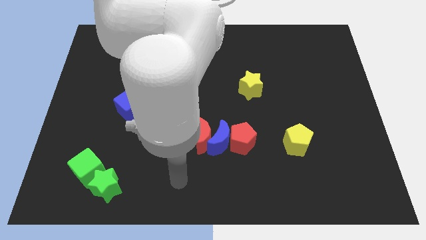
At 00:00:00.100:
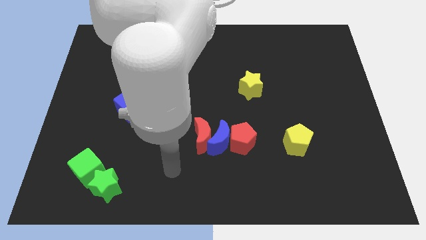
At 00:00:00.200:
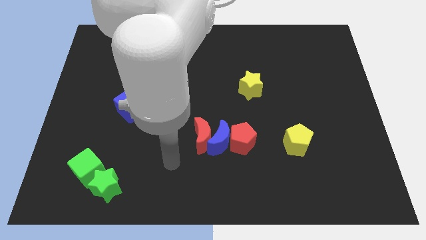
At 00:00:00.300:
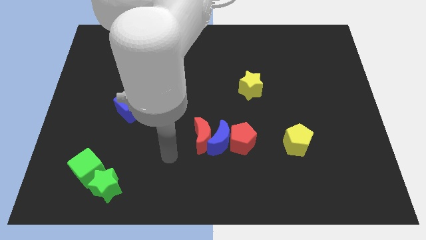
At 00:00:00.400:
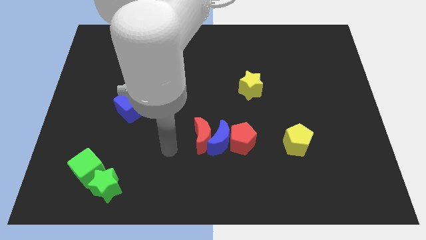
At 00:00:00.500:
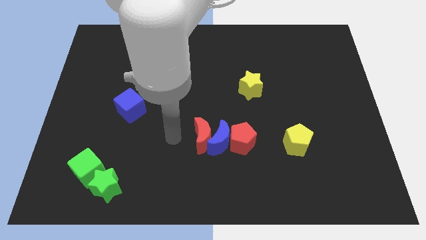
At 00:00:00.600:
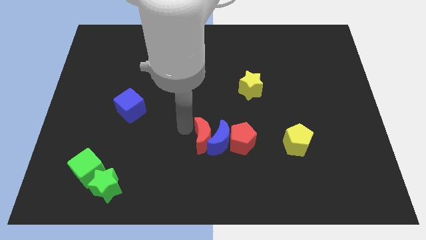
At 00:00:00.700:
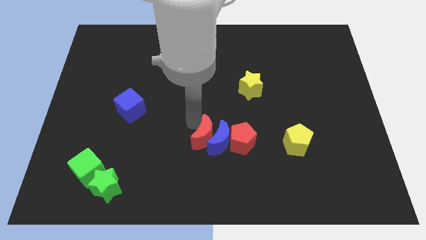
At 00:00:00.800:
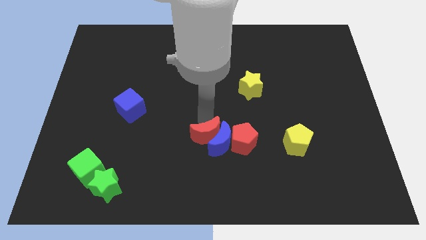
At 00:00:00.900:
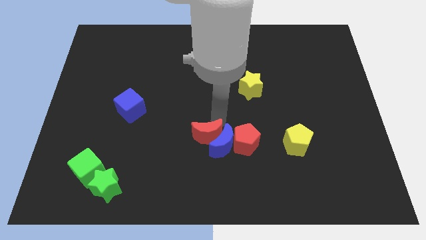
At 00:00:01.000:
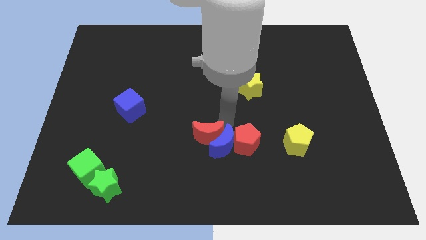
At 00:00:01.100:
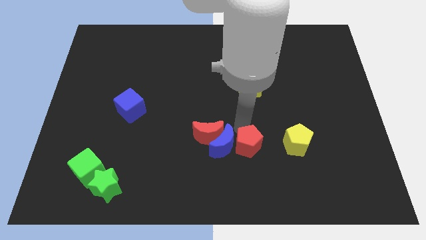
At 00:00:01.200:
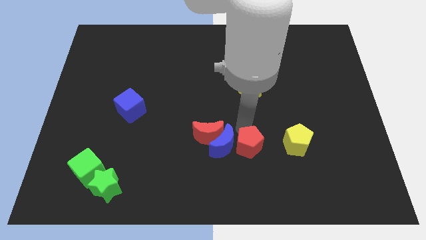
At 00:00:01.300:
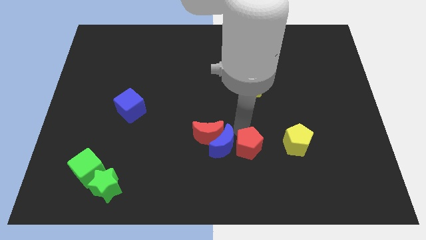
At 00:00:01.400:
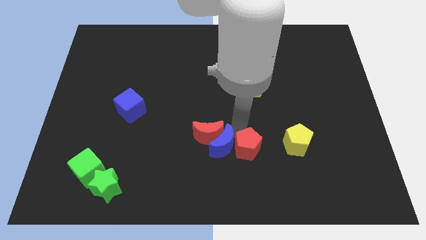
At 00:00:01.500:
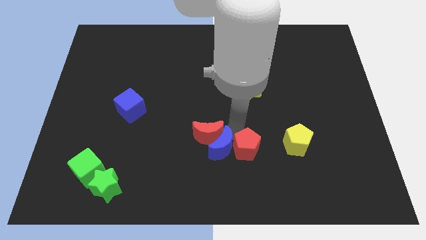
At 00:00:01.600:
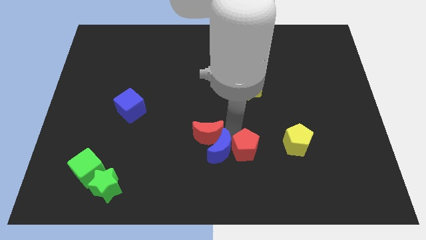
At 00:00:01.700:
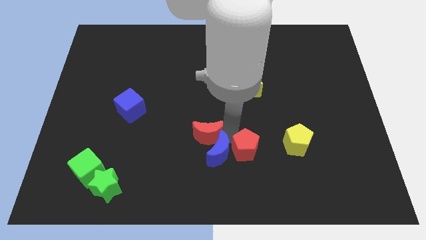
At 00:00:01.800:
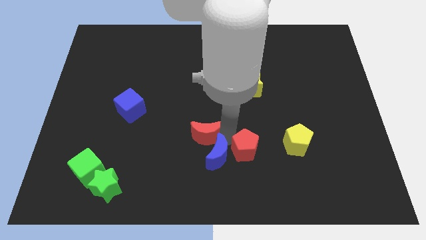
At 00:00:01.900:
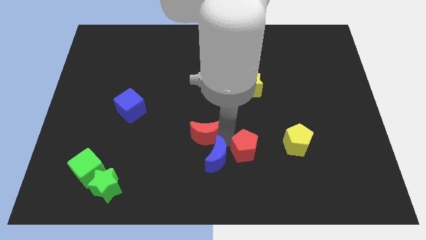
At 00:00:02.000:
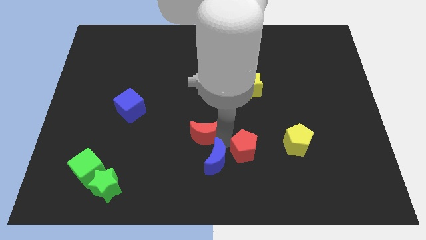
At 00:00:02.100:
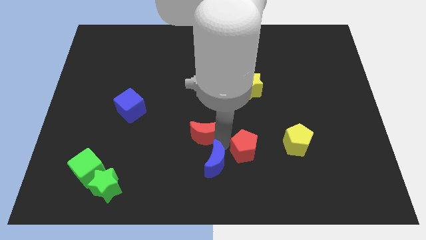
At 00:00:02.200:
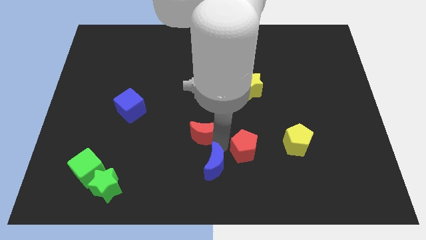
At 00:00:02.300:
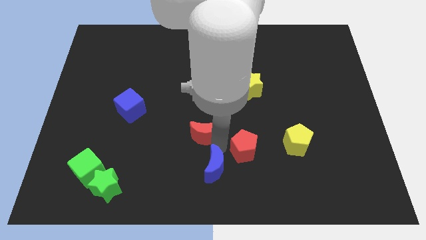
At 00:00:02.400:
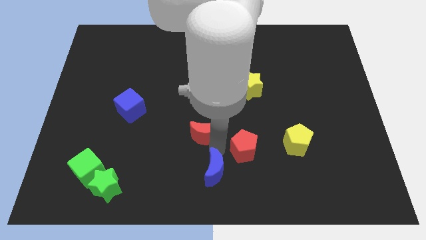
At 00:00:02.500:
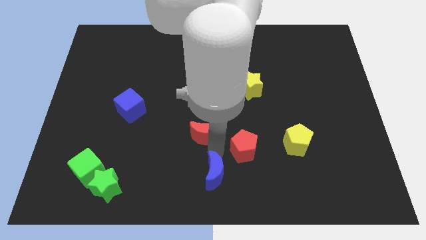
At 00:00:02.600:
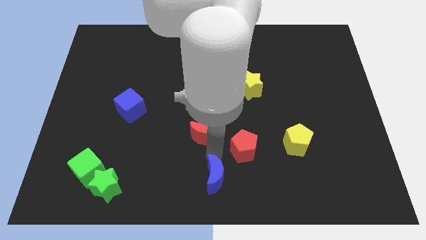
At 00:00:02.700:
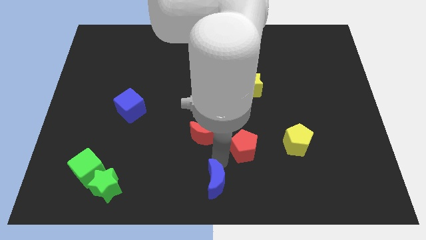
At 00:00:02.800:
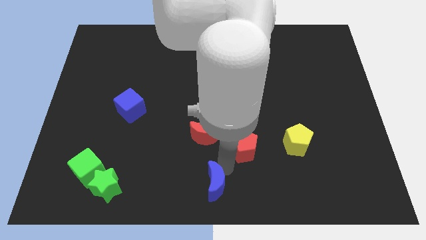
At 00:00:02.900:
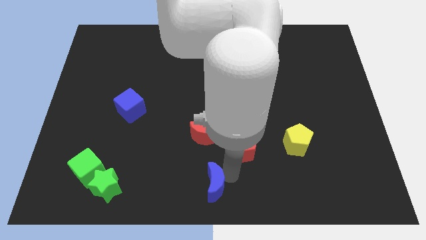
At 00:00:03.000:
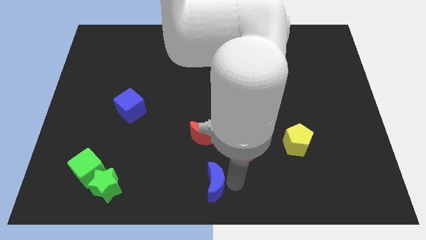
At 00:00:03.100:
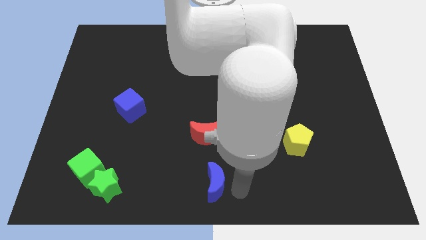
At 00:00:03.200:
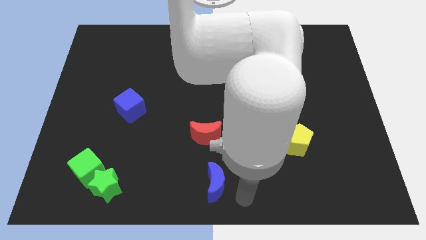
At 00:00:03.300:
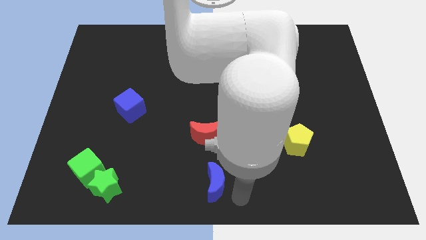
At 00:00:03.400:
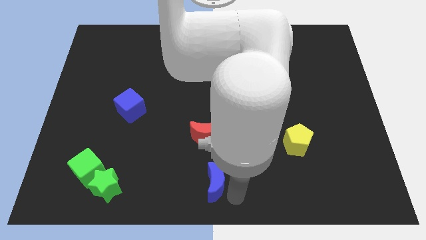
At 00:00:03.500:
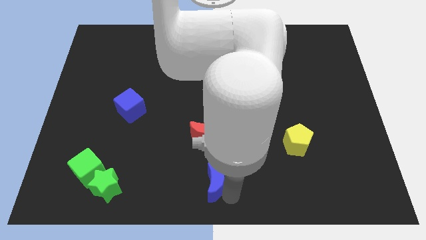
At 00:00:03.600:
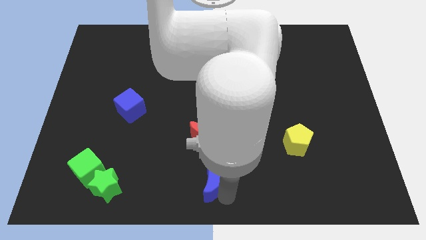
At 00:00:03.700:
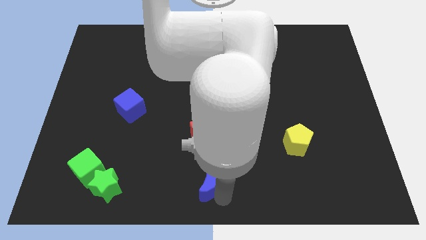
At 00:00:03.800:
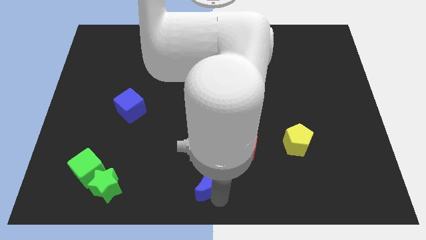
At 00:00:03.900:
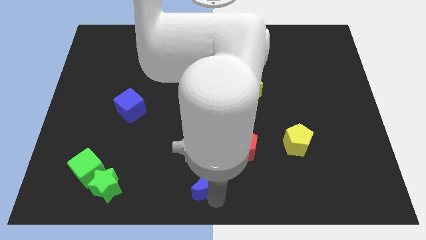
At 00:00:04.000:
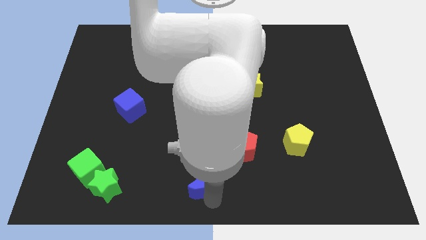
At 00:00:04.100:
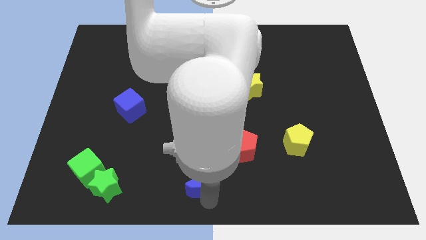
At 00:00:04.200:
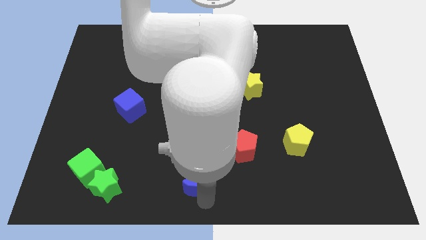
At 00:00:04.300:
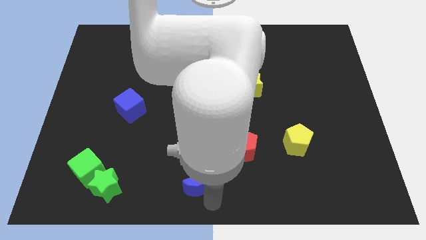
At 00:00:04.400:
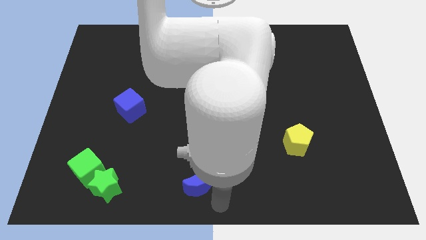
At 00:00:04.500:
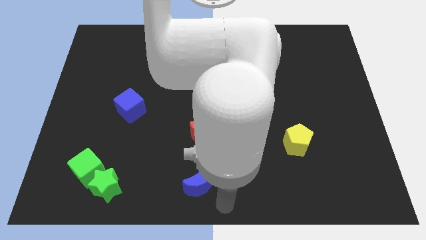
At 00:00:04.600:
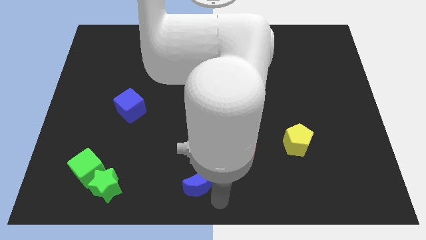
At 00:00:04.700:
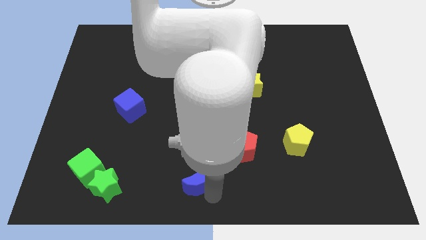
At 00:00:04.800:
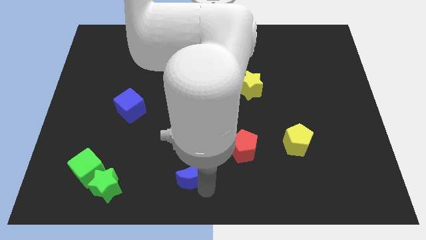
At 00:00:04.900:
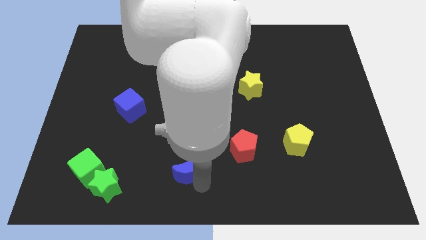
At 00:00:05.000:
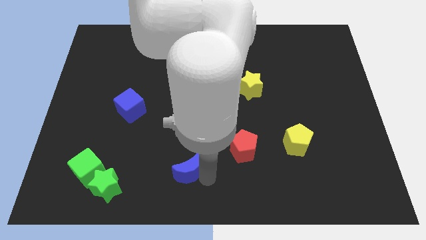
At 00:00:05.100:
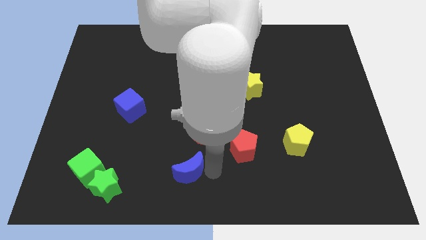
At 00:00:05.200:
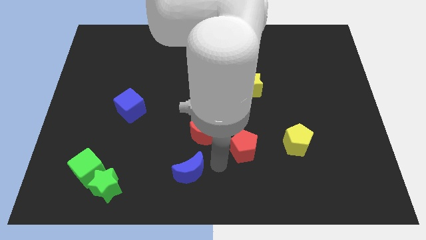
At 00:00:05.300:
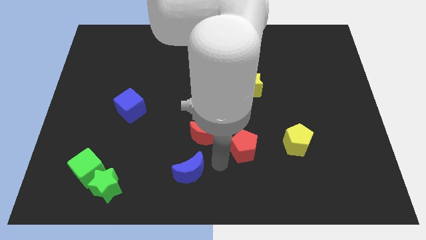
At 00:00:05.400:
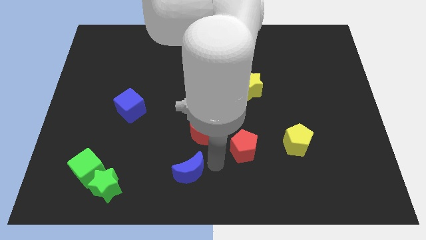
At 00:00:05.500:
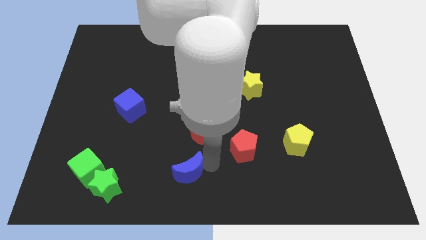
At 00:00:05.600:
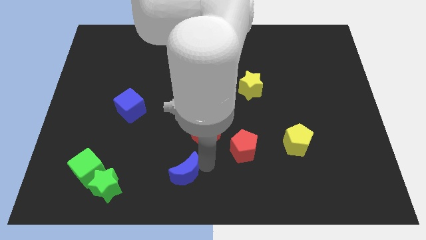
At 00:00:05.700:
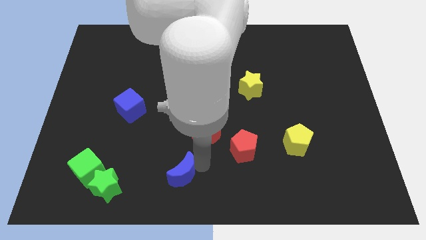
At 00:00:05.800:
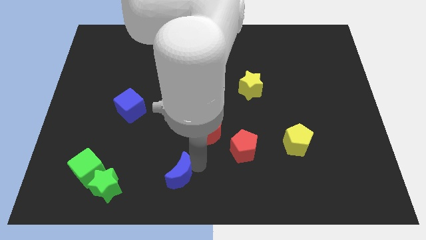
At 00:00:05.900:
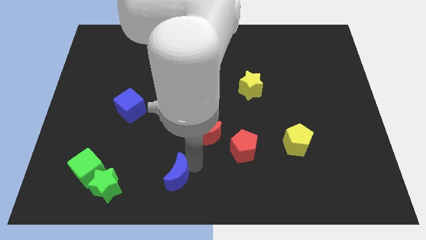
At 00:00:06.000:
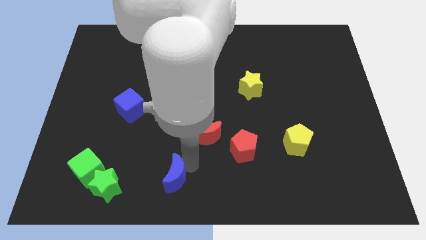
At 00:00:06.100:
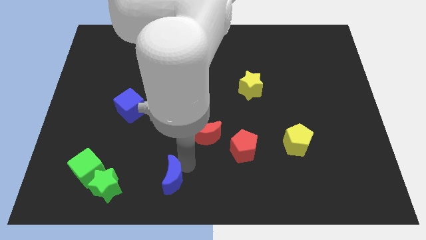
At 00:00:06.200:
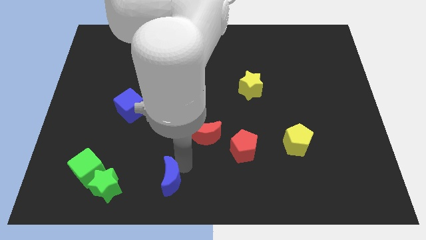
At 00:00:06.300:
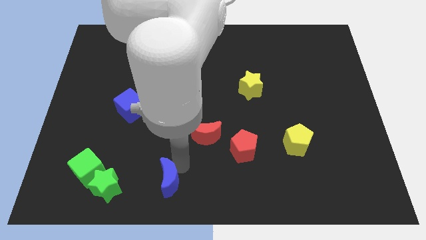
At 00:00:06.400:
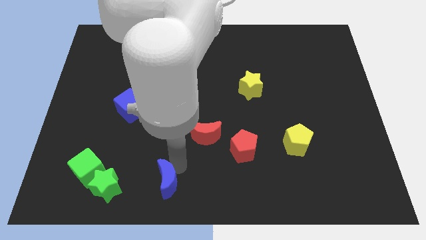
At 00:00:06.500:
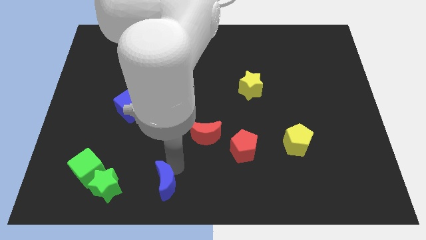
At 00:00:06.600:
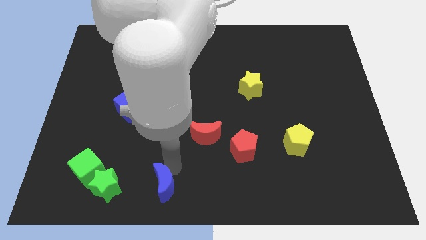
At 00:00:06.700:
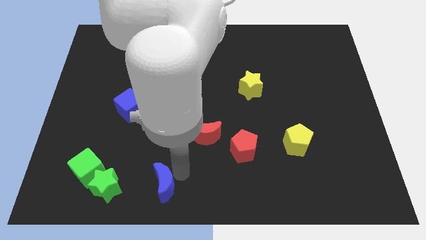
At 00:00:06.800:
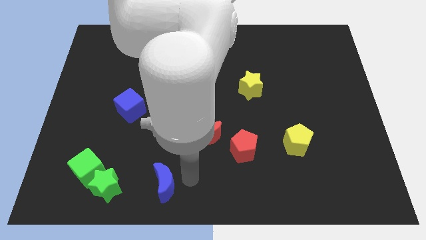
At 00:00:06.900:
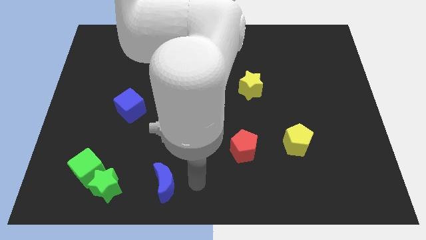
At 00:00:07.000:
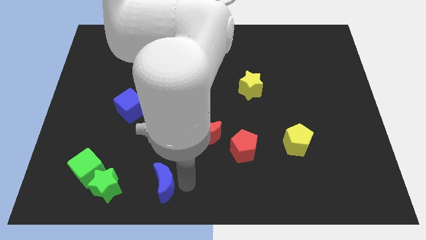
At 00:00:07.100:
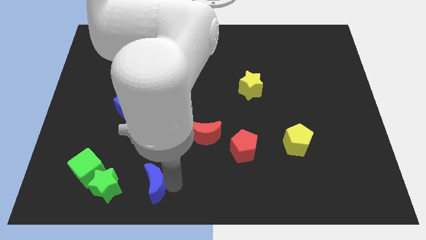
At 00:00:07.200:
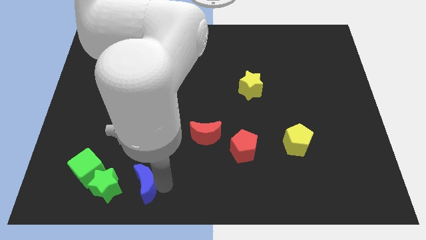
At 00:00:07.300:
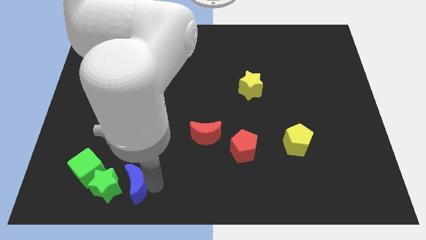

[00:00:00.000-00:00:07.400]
put the blue moon towards the green star
